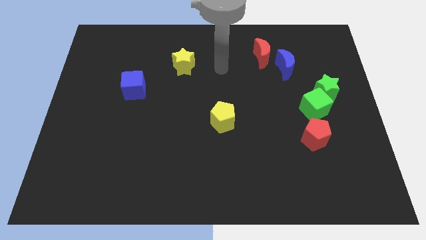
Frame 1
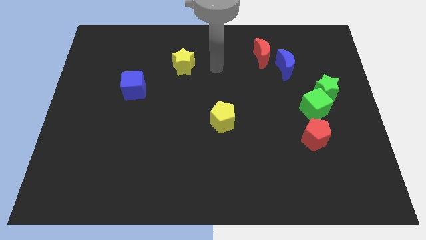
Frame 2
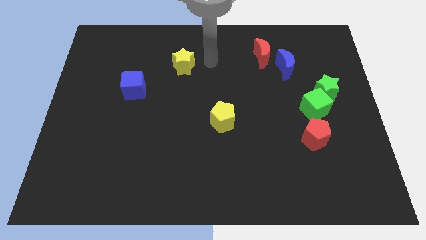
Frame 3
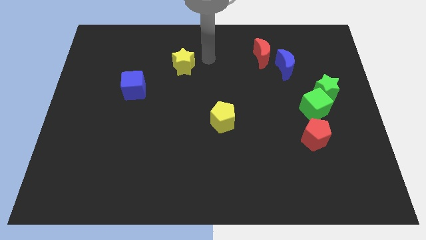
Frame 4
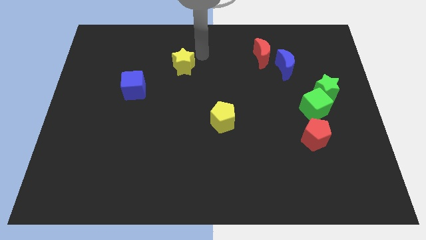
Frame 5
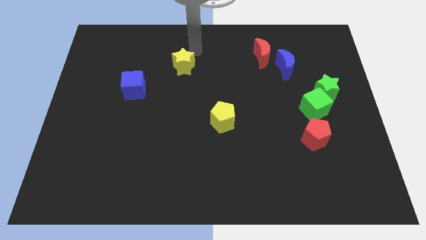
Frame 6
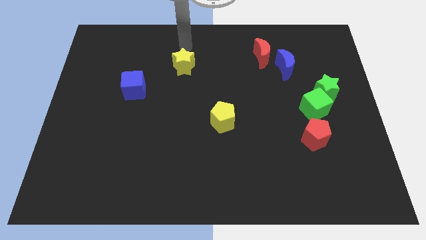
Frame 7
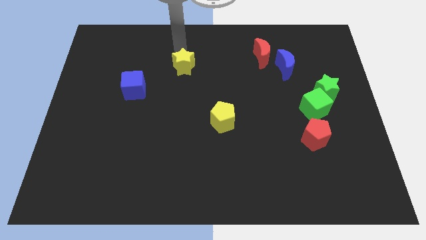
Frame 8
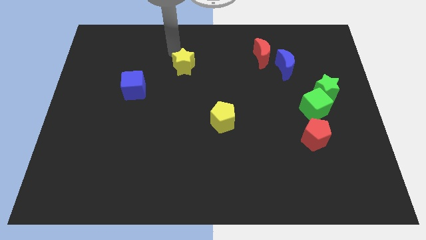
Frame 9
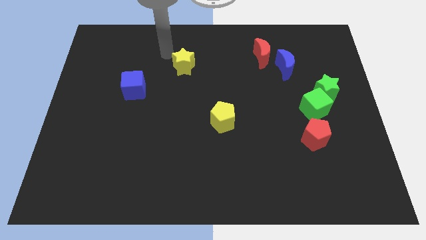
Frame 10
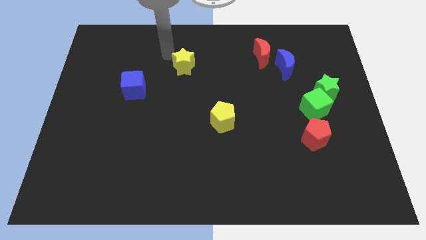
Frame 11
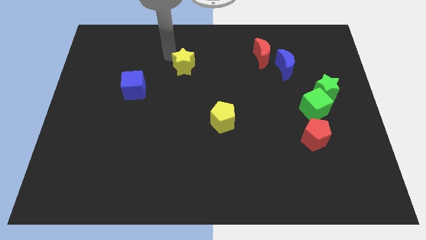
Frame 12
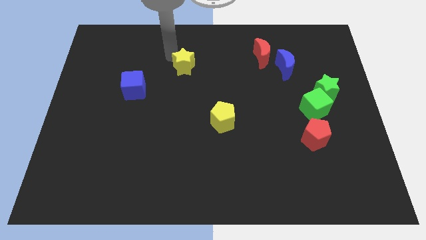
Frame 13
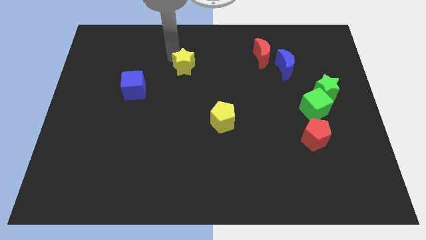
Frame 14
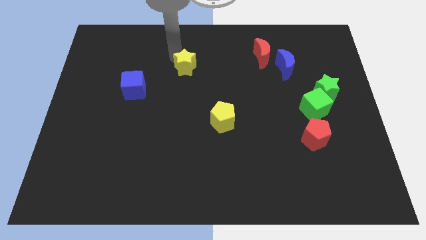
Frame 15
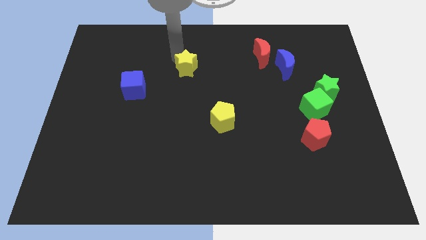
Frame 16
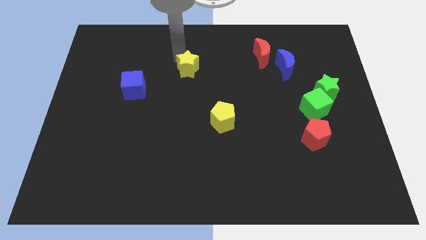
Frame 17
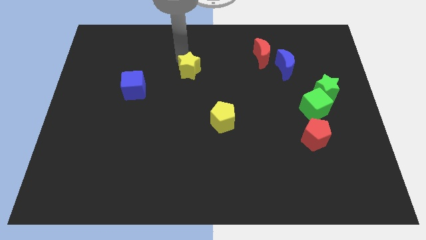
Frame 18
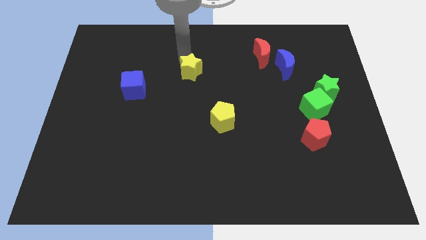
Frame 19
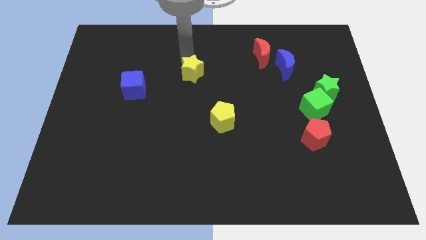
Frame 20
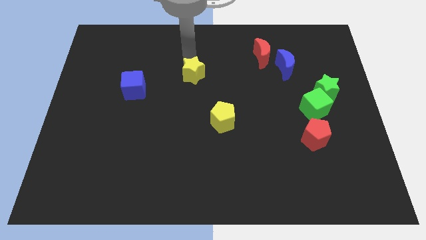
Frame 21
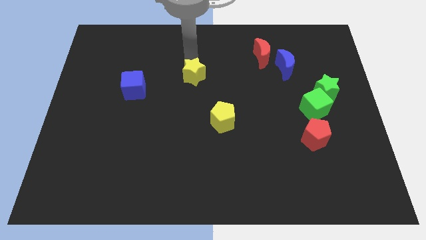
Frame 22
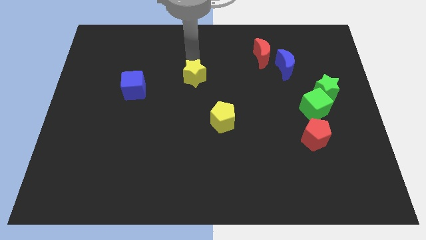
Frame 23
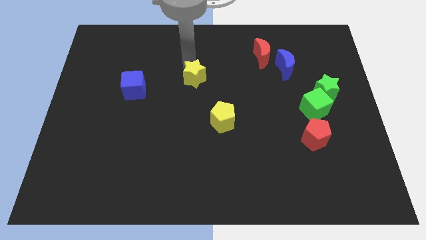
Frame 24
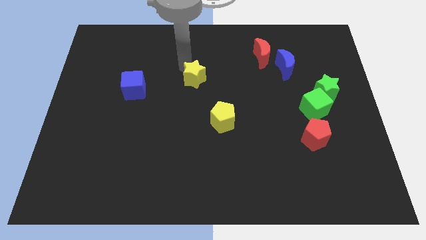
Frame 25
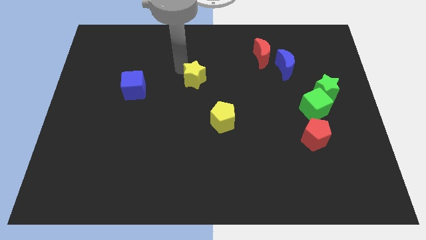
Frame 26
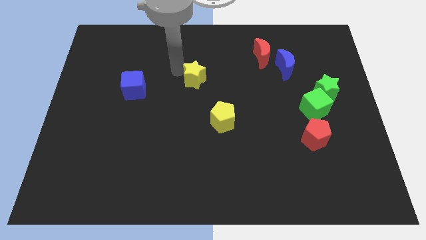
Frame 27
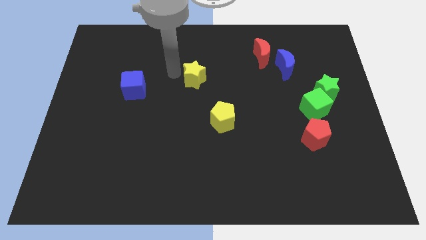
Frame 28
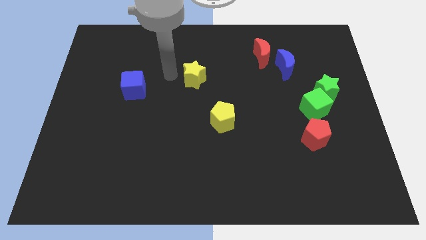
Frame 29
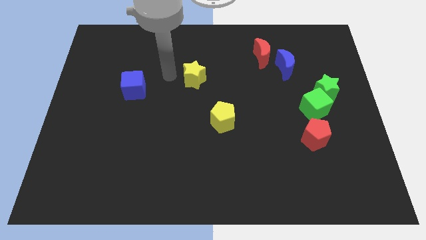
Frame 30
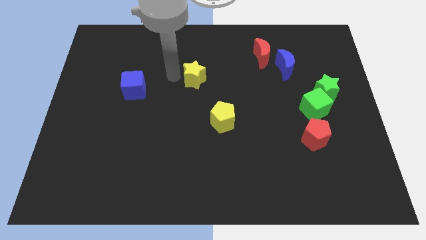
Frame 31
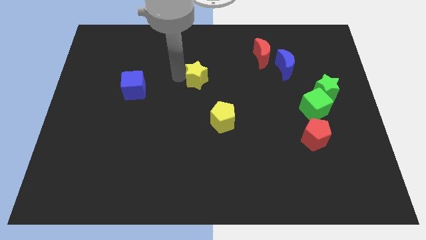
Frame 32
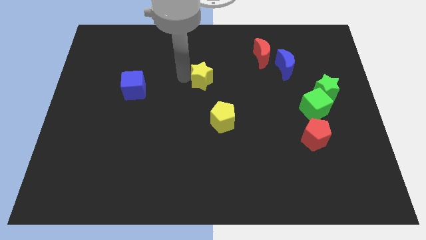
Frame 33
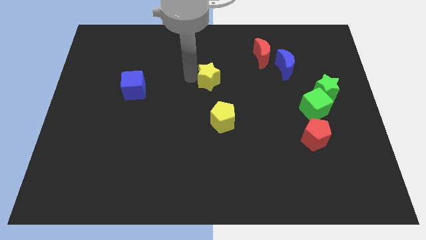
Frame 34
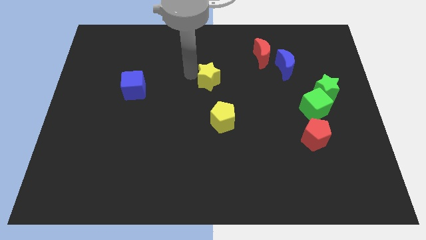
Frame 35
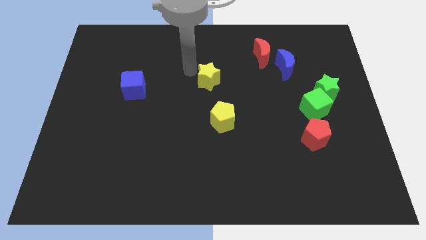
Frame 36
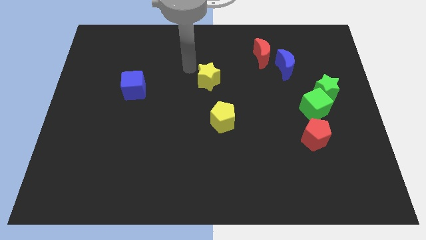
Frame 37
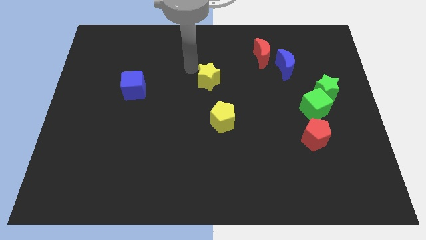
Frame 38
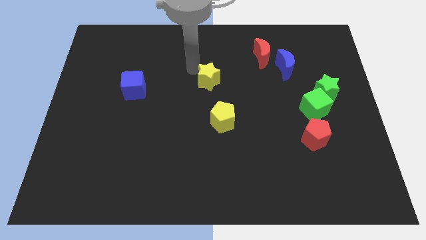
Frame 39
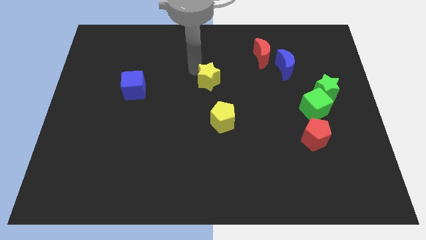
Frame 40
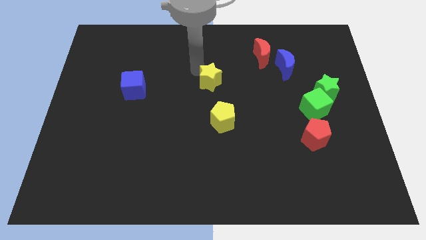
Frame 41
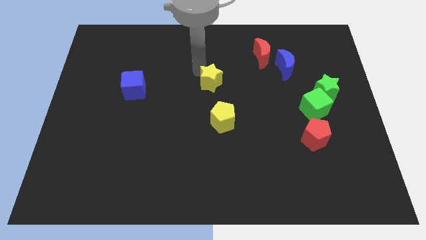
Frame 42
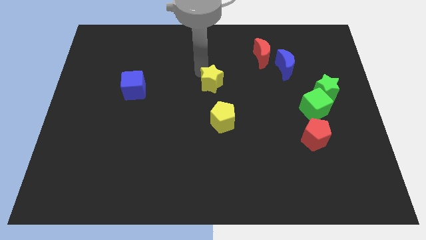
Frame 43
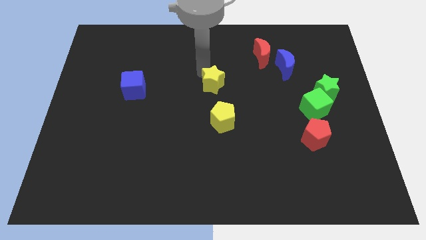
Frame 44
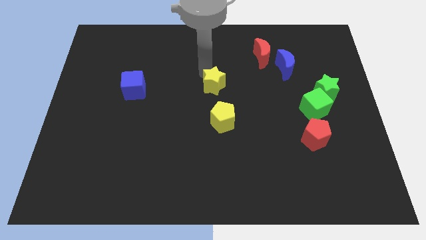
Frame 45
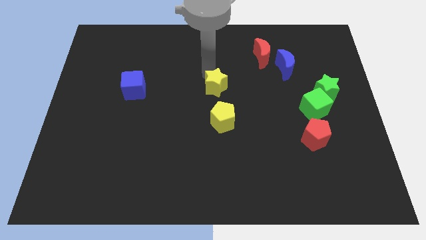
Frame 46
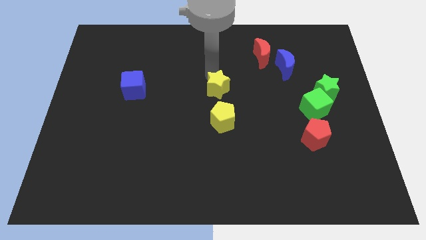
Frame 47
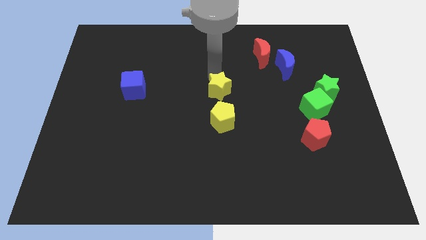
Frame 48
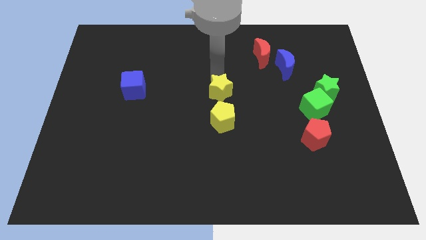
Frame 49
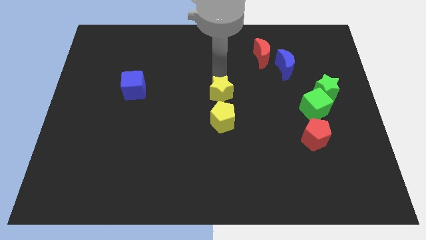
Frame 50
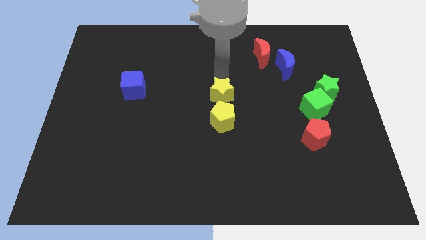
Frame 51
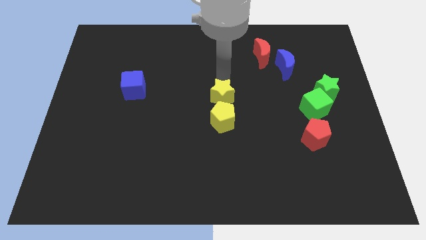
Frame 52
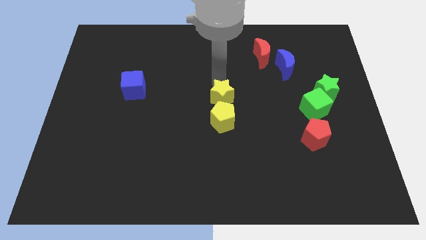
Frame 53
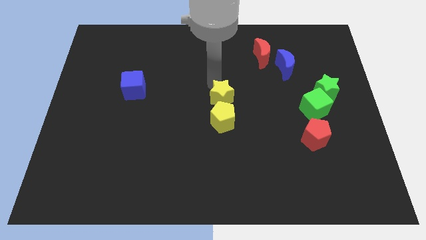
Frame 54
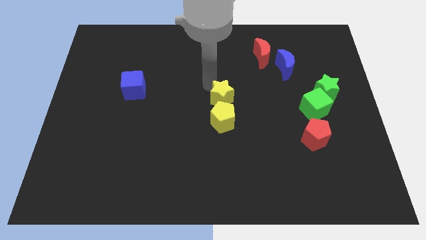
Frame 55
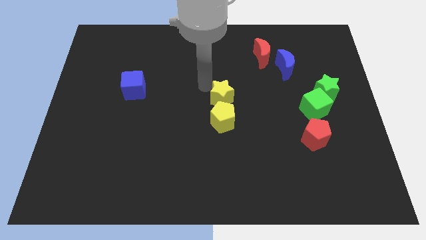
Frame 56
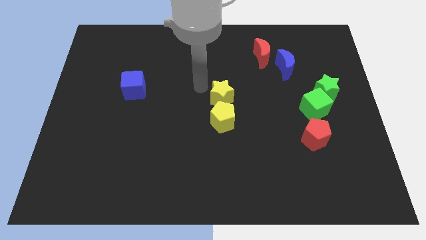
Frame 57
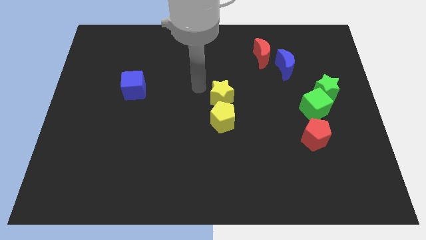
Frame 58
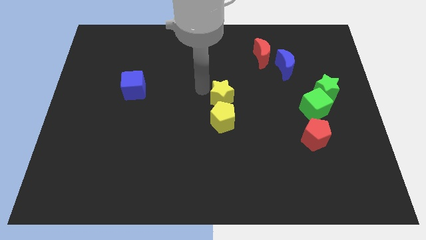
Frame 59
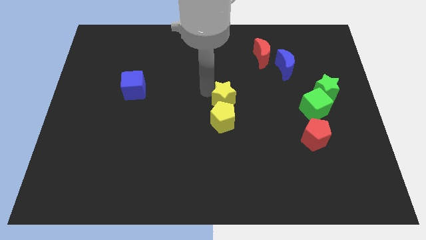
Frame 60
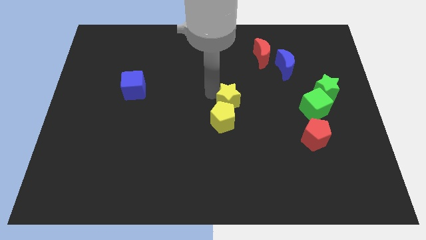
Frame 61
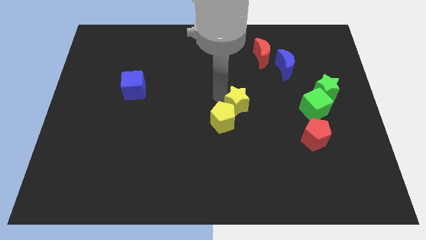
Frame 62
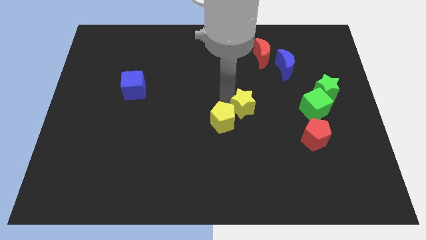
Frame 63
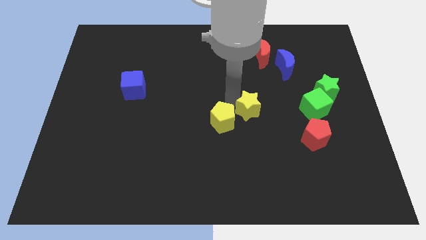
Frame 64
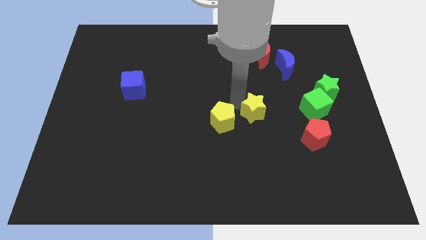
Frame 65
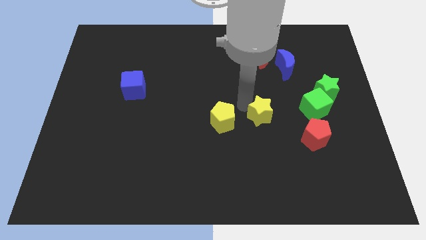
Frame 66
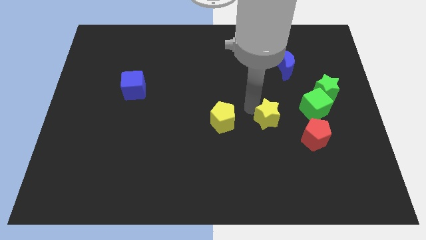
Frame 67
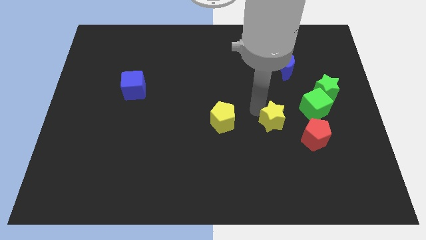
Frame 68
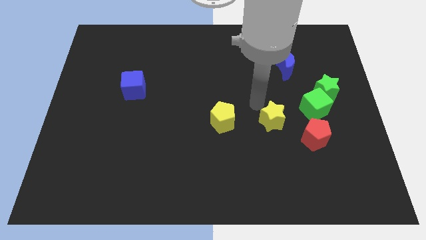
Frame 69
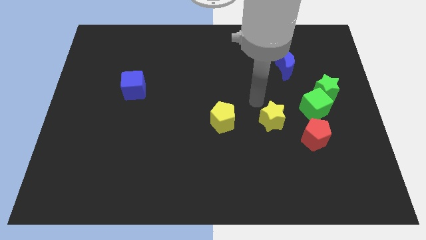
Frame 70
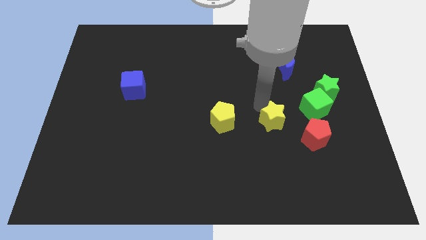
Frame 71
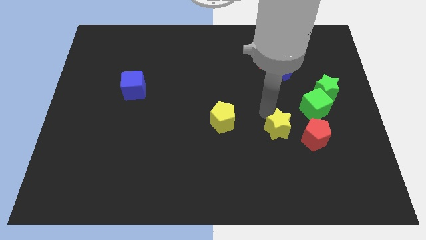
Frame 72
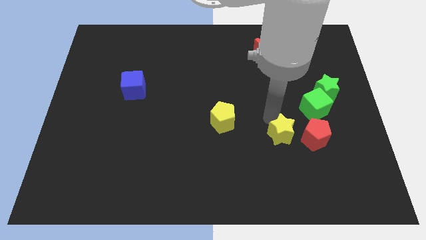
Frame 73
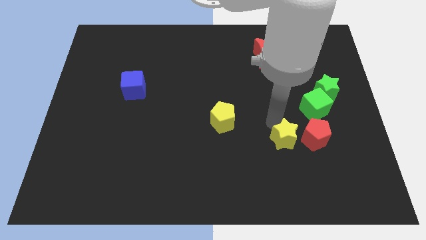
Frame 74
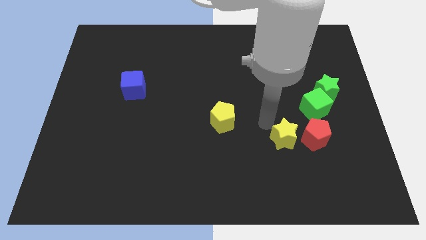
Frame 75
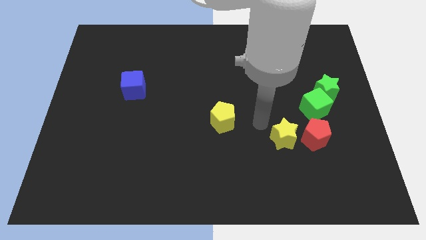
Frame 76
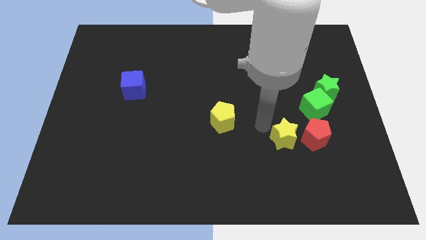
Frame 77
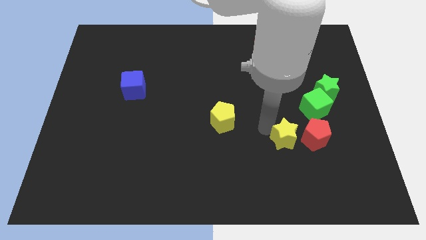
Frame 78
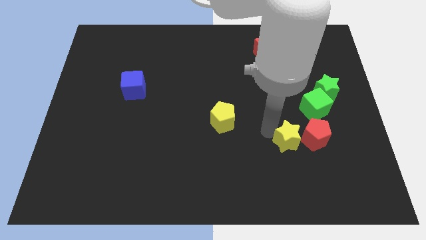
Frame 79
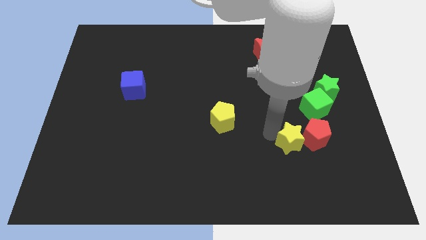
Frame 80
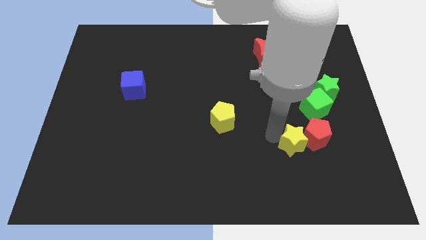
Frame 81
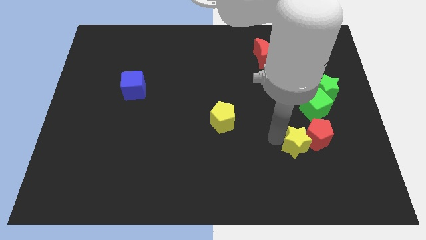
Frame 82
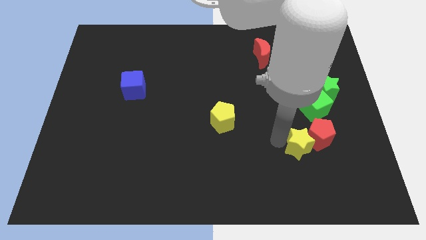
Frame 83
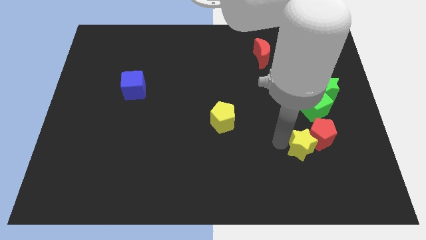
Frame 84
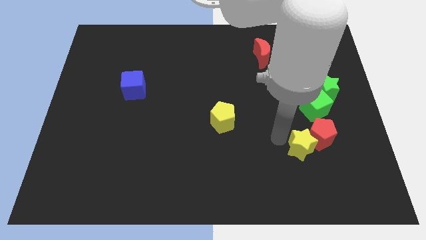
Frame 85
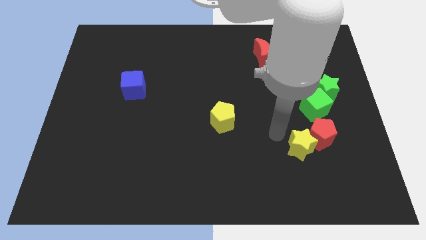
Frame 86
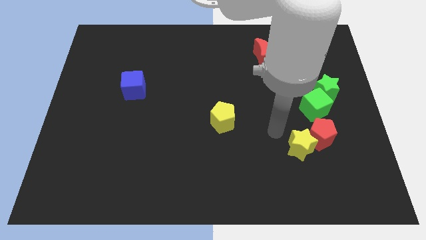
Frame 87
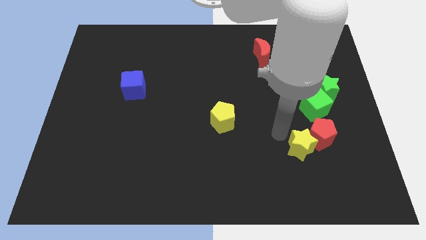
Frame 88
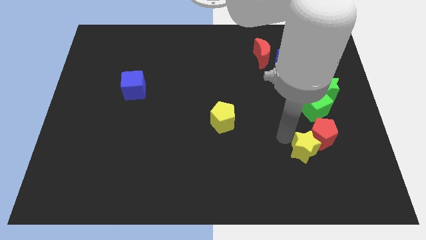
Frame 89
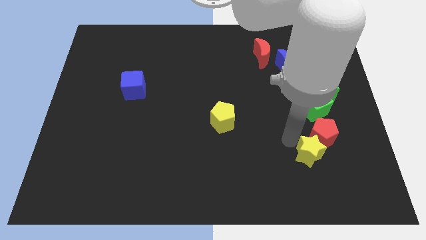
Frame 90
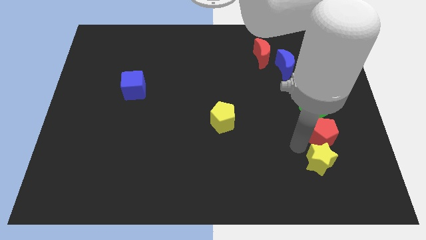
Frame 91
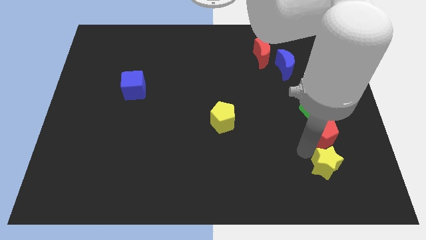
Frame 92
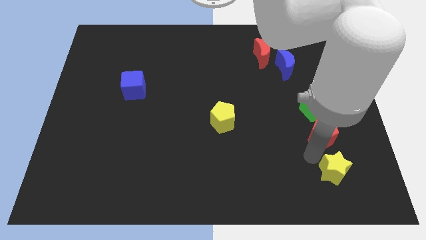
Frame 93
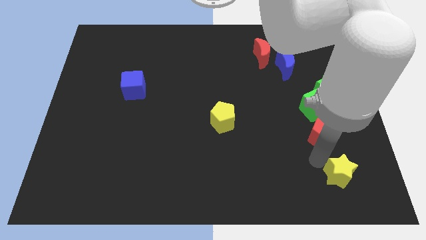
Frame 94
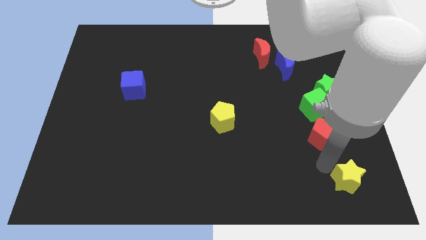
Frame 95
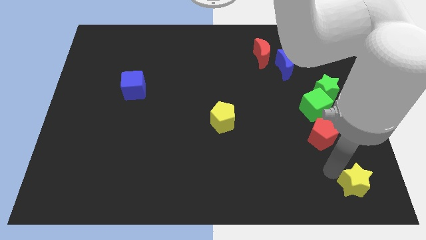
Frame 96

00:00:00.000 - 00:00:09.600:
push the yellow star to the bottom right of the board
